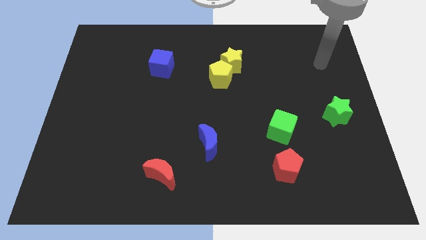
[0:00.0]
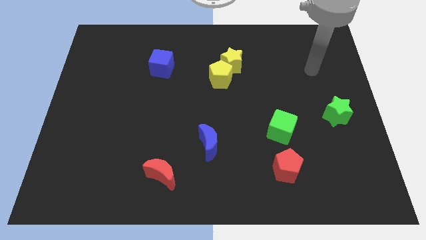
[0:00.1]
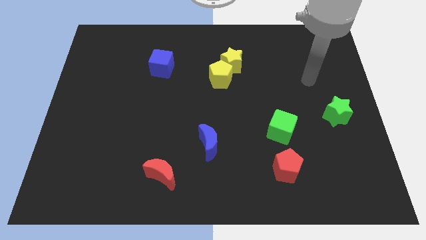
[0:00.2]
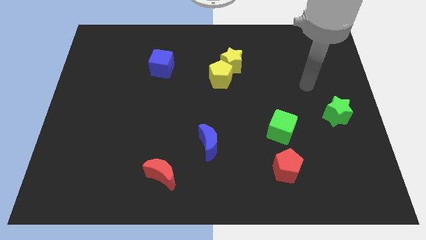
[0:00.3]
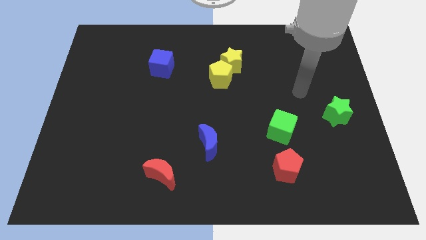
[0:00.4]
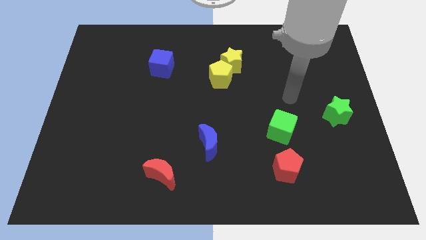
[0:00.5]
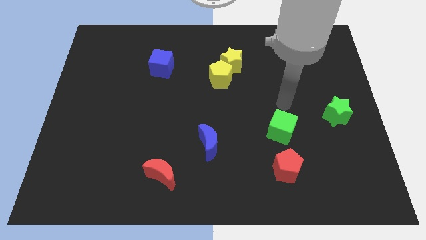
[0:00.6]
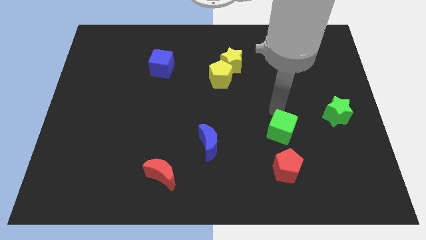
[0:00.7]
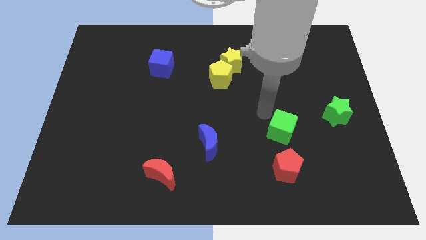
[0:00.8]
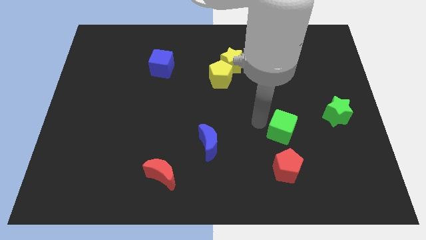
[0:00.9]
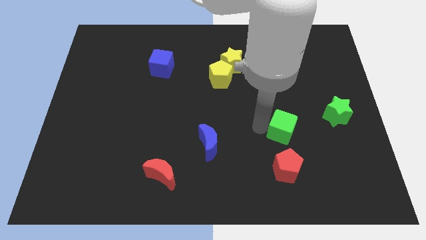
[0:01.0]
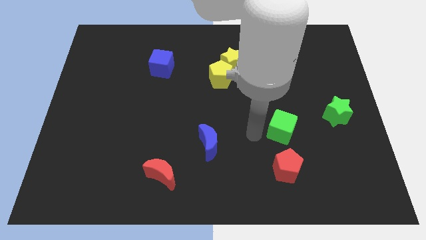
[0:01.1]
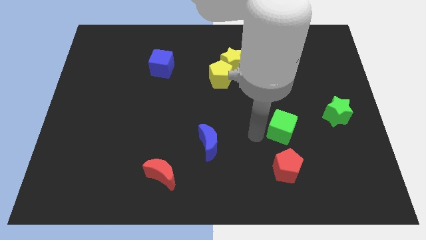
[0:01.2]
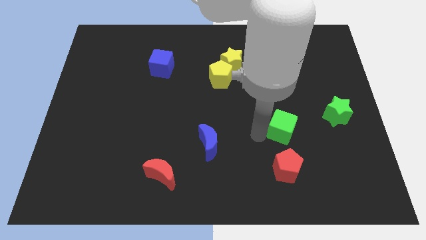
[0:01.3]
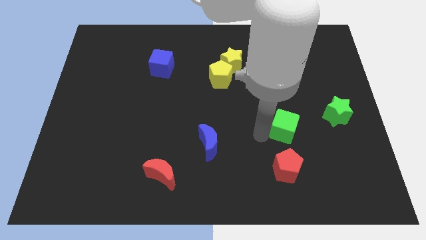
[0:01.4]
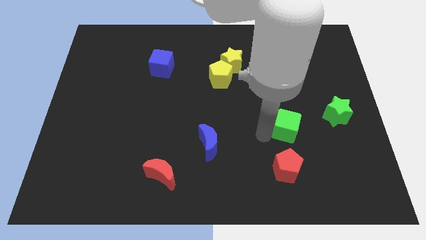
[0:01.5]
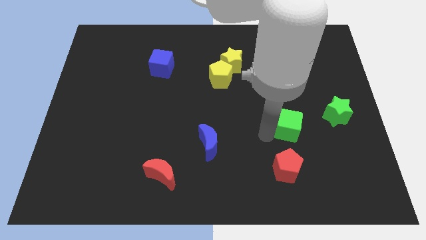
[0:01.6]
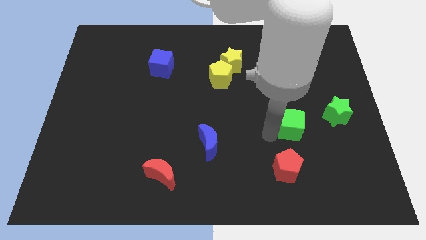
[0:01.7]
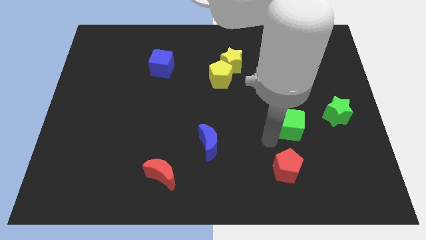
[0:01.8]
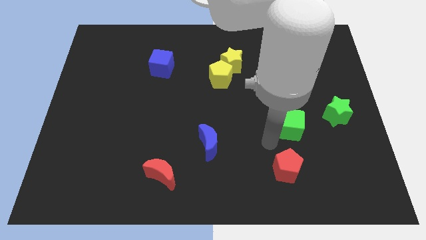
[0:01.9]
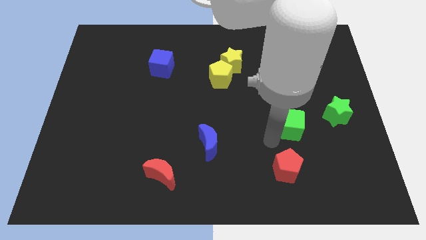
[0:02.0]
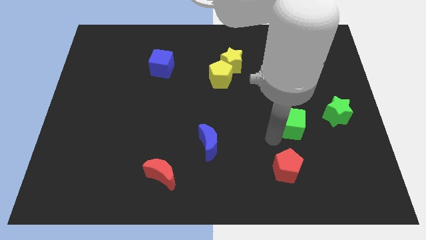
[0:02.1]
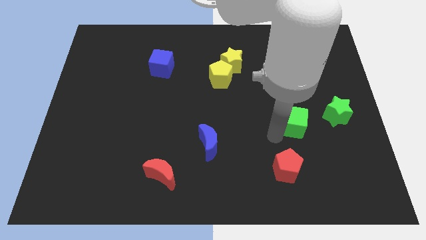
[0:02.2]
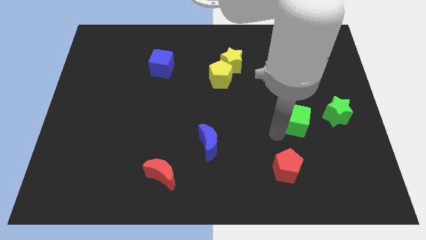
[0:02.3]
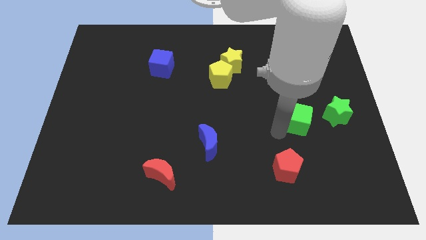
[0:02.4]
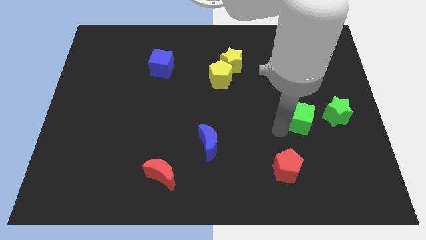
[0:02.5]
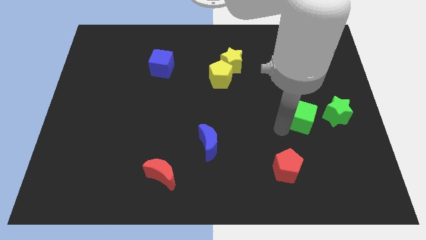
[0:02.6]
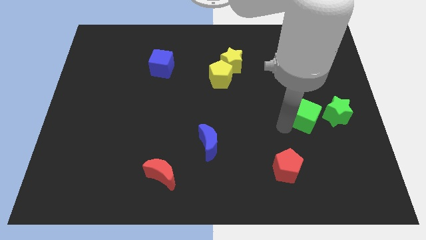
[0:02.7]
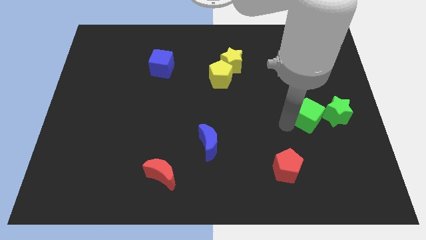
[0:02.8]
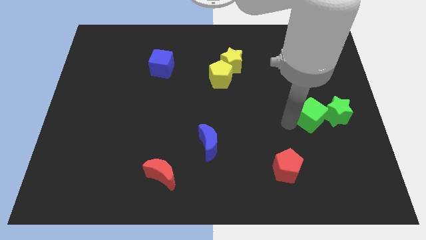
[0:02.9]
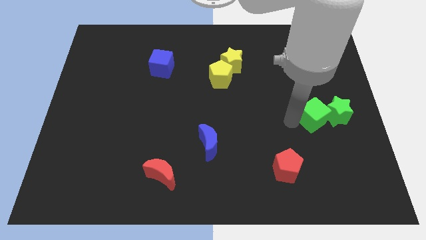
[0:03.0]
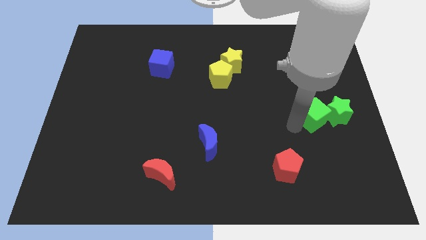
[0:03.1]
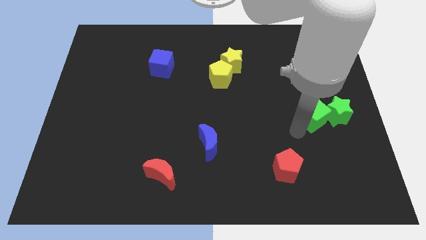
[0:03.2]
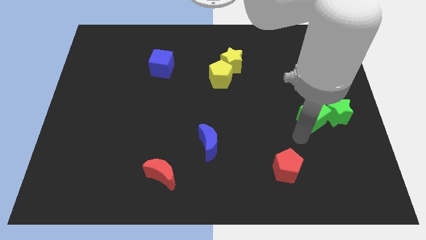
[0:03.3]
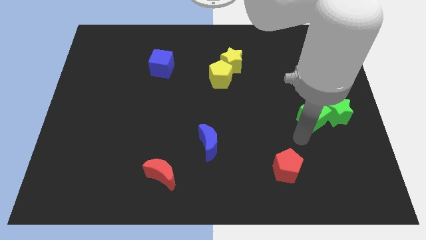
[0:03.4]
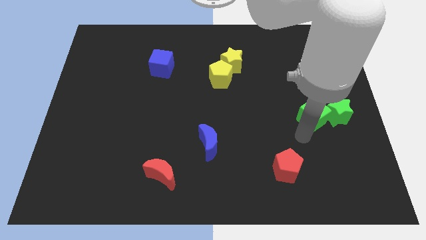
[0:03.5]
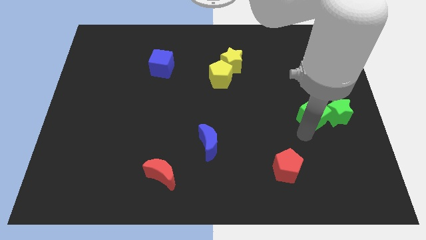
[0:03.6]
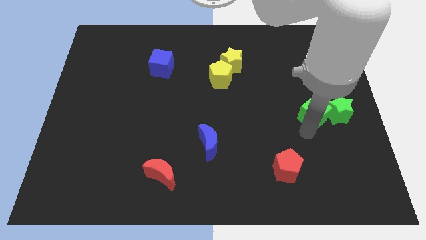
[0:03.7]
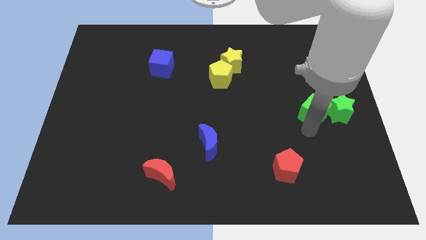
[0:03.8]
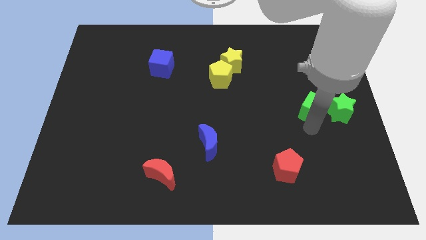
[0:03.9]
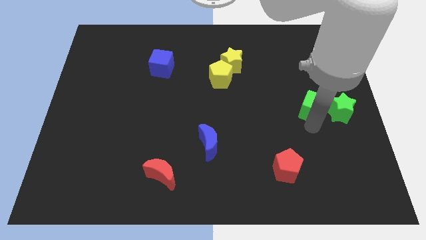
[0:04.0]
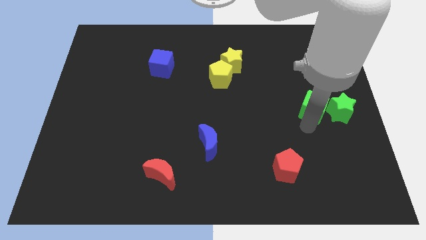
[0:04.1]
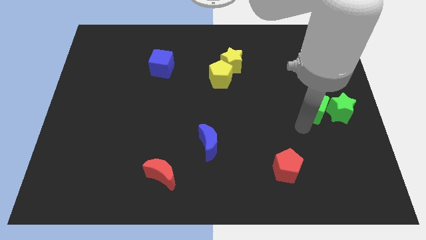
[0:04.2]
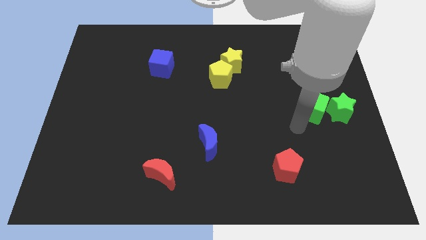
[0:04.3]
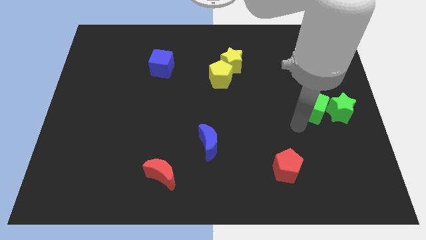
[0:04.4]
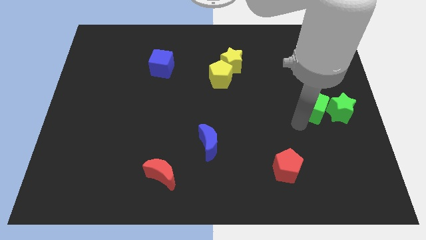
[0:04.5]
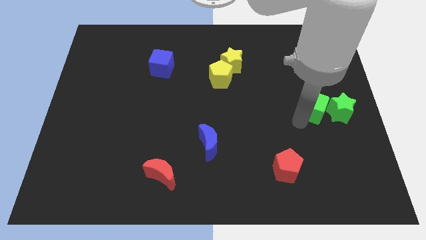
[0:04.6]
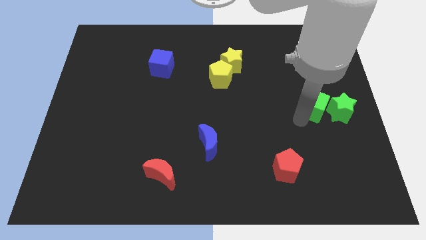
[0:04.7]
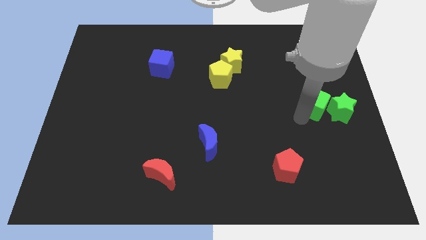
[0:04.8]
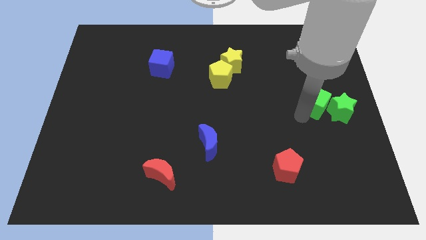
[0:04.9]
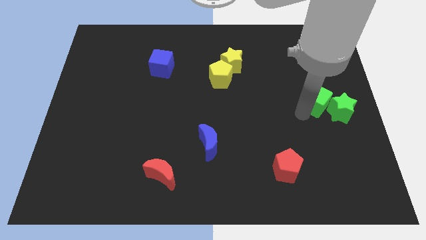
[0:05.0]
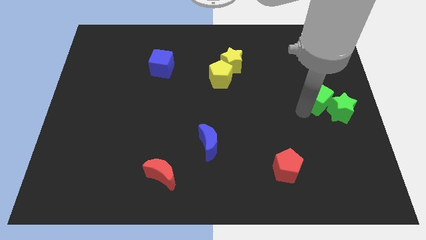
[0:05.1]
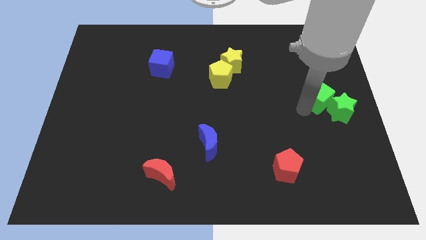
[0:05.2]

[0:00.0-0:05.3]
slide the green cube to the right side of the board

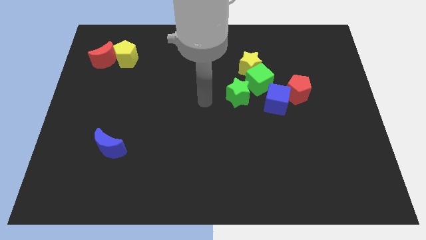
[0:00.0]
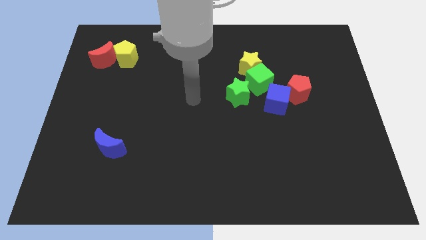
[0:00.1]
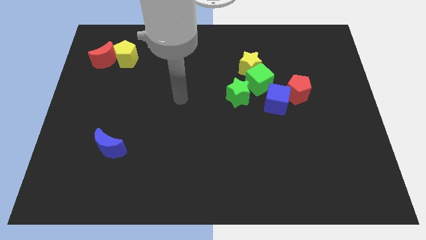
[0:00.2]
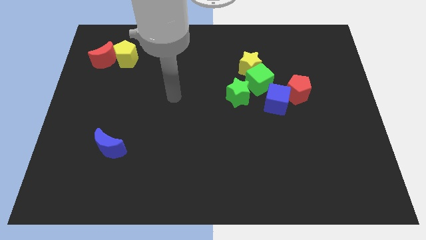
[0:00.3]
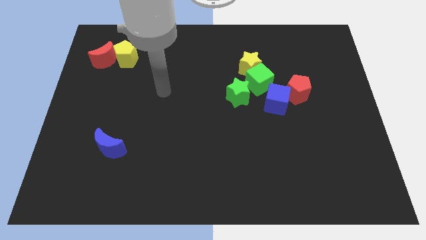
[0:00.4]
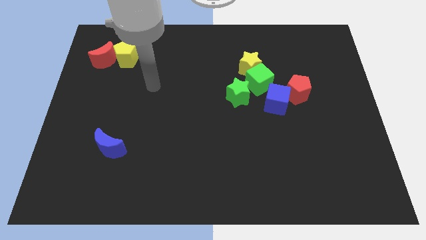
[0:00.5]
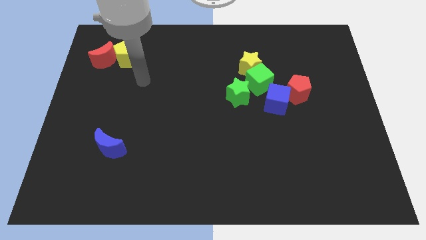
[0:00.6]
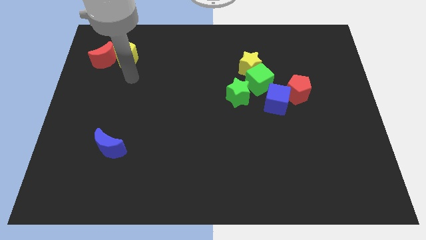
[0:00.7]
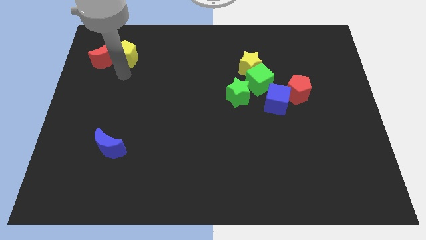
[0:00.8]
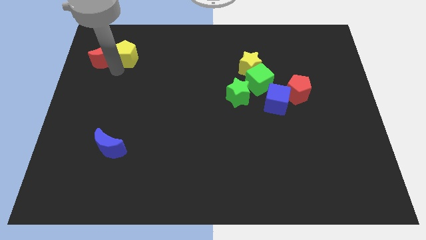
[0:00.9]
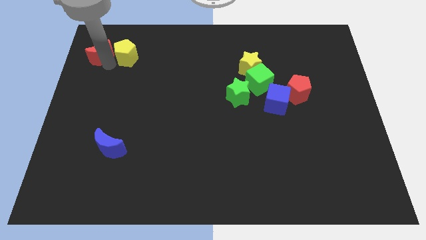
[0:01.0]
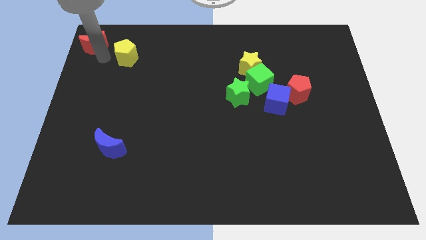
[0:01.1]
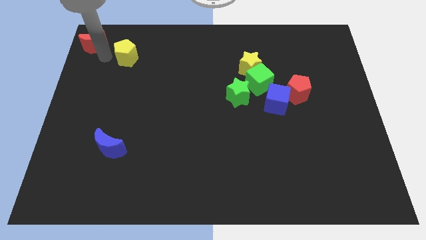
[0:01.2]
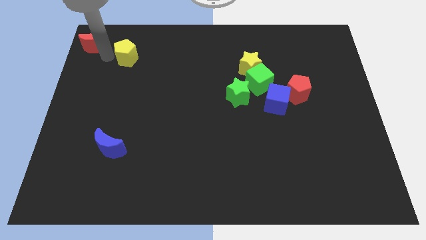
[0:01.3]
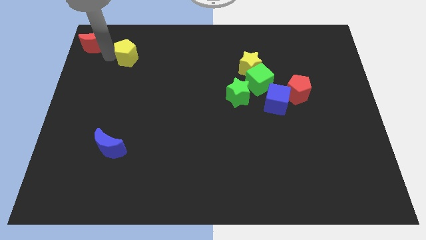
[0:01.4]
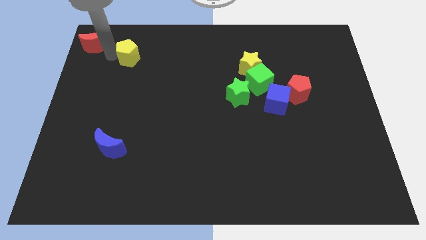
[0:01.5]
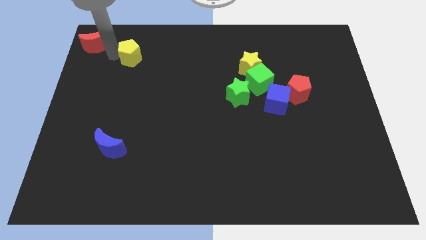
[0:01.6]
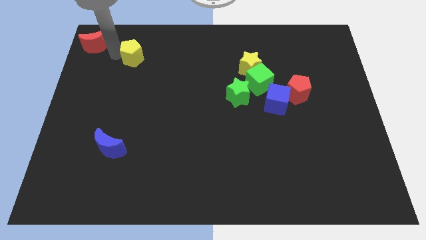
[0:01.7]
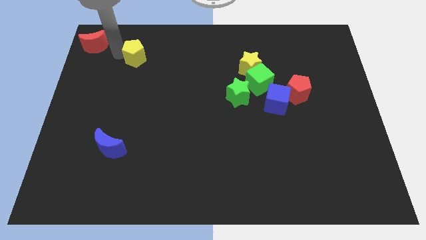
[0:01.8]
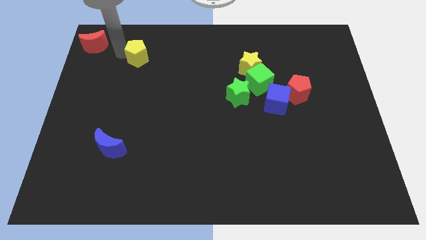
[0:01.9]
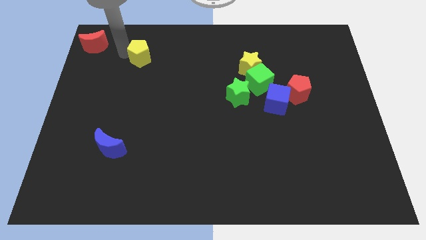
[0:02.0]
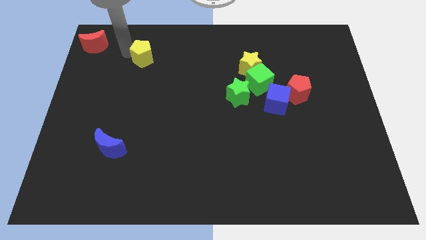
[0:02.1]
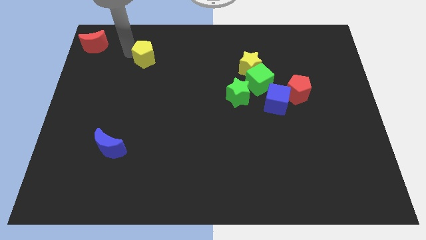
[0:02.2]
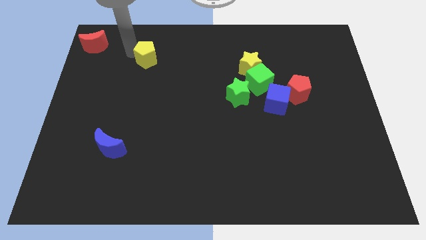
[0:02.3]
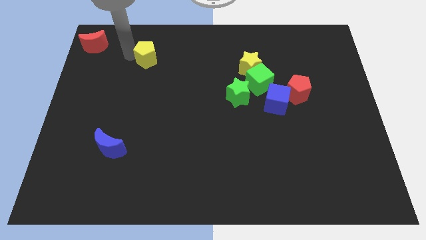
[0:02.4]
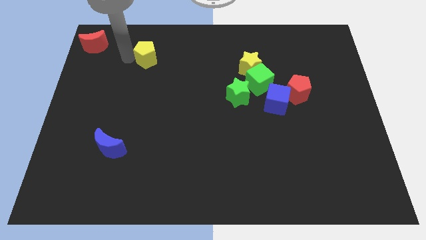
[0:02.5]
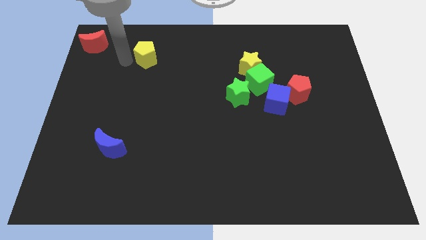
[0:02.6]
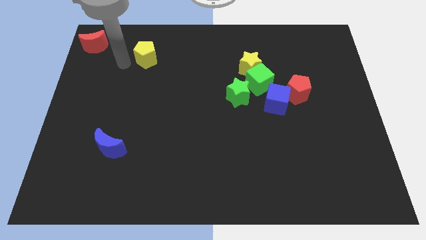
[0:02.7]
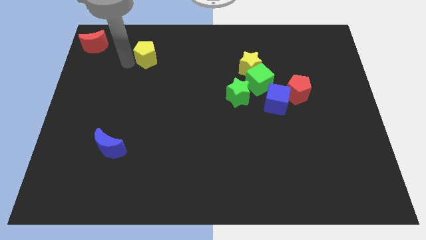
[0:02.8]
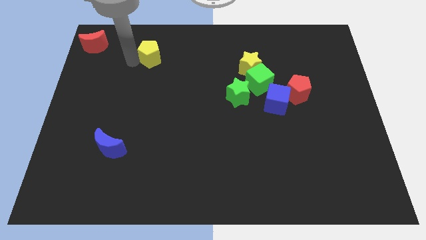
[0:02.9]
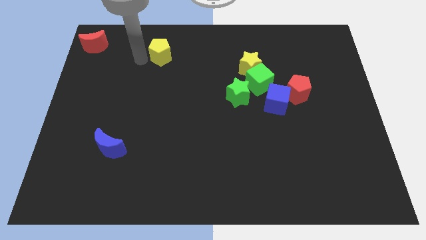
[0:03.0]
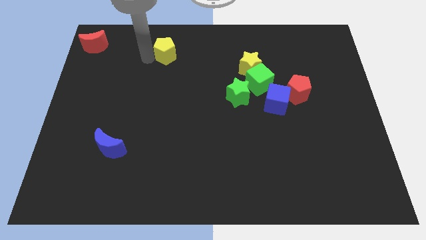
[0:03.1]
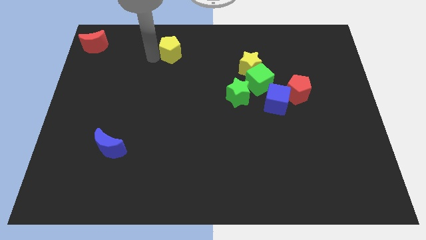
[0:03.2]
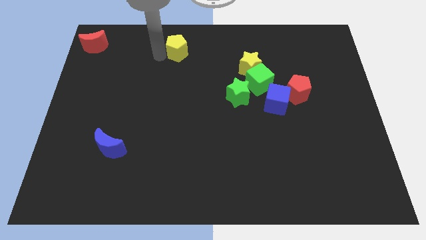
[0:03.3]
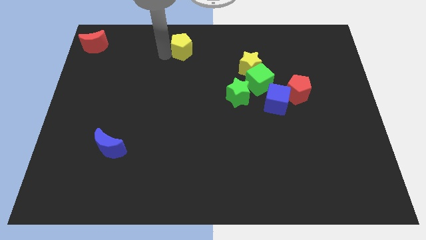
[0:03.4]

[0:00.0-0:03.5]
put the yellow pentagon to the top
